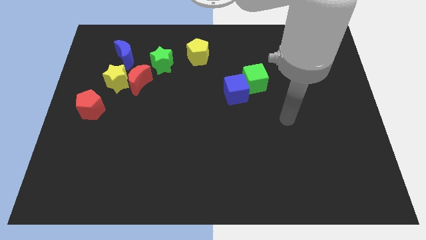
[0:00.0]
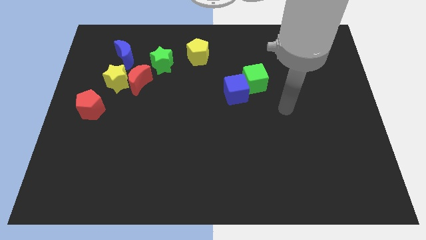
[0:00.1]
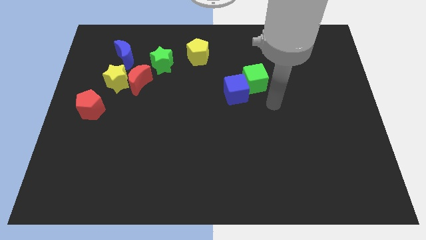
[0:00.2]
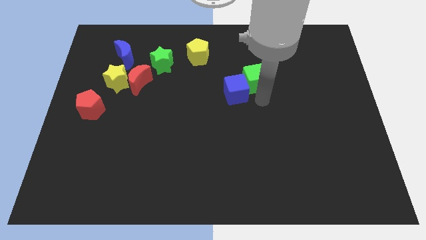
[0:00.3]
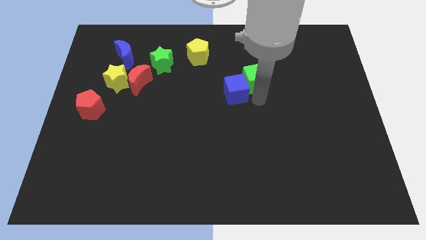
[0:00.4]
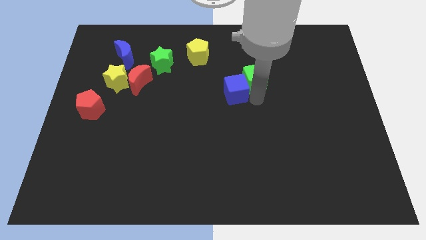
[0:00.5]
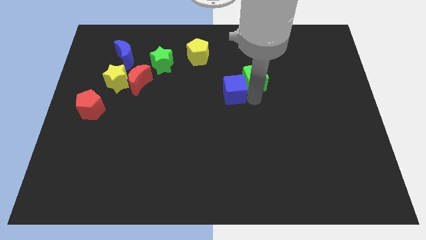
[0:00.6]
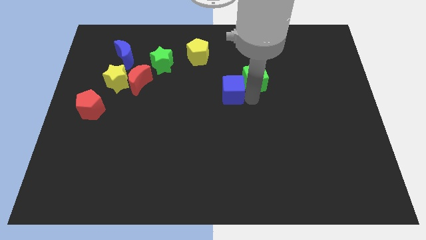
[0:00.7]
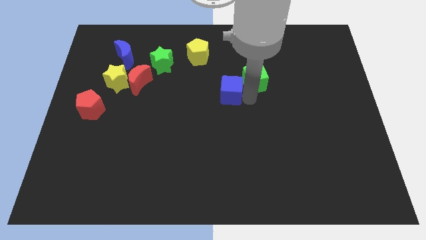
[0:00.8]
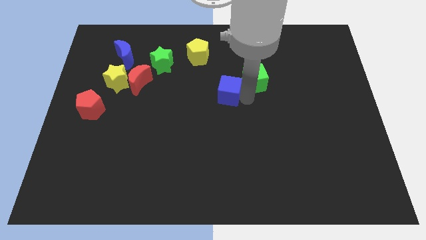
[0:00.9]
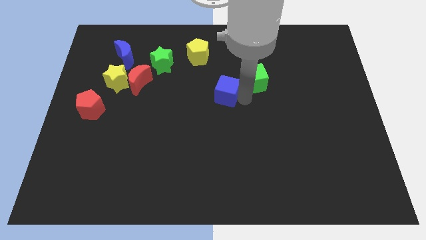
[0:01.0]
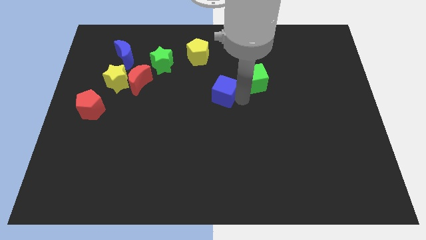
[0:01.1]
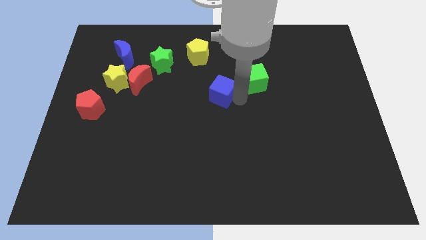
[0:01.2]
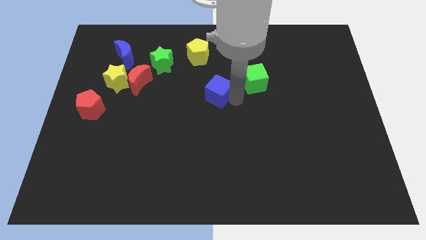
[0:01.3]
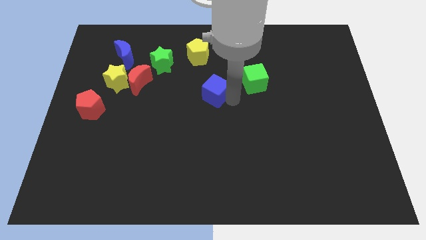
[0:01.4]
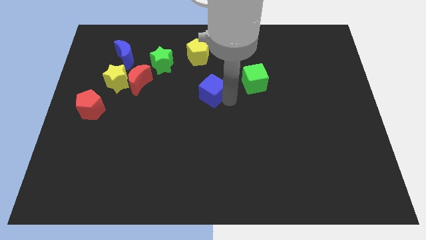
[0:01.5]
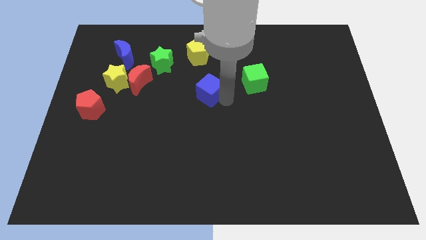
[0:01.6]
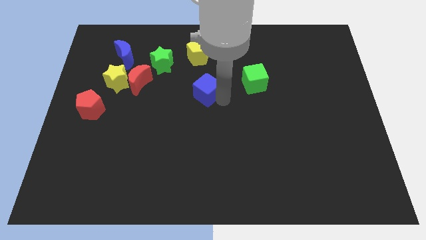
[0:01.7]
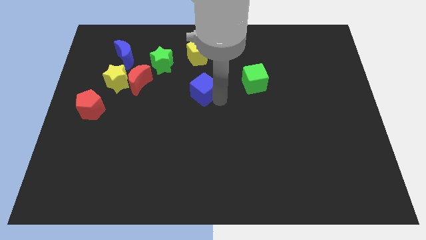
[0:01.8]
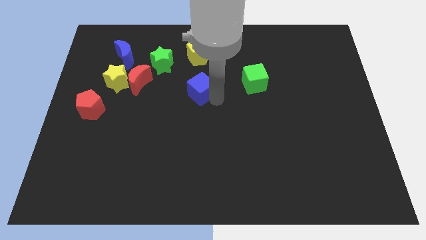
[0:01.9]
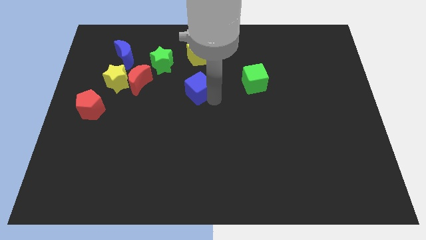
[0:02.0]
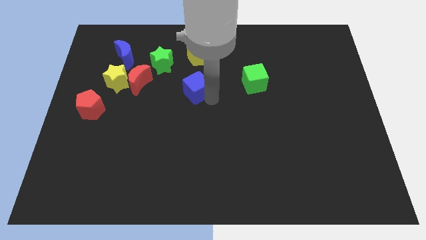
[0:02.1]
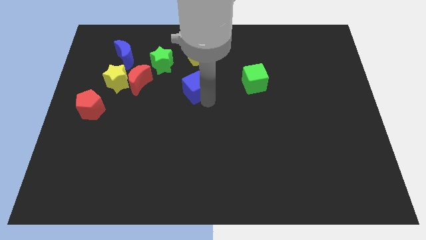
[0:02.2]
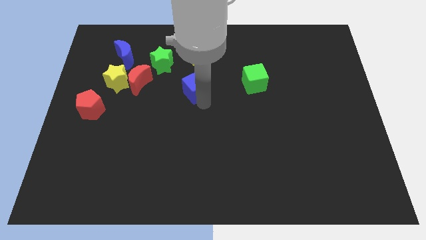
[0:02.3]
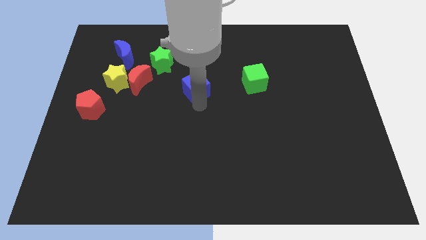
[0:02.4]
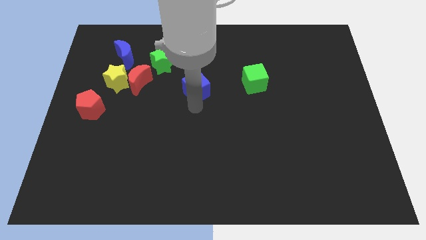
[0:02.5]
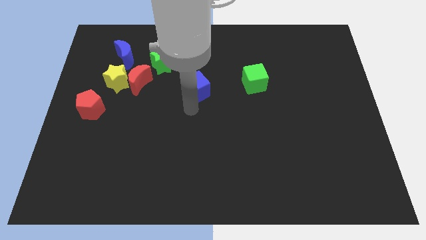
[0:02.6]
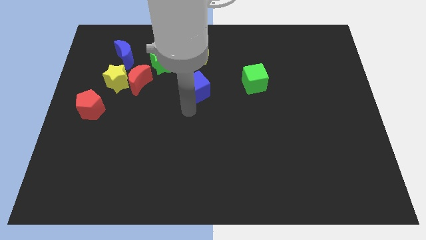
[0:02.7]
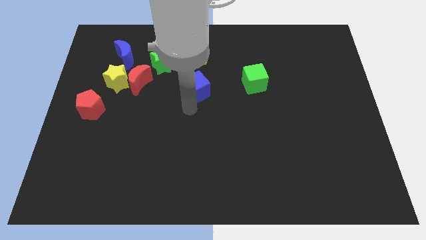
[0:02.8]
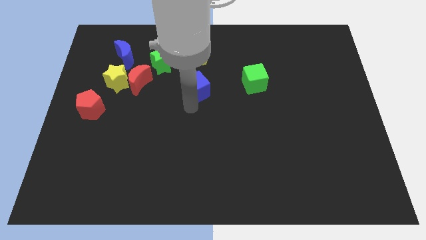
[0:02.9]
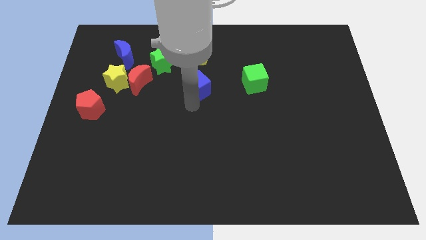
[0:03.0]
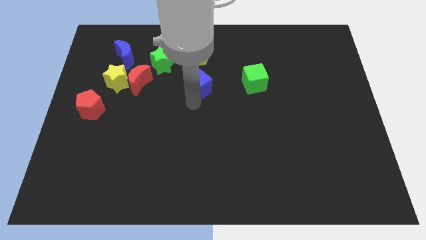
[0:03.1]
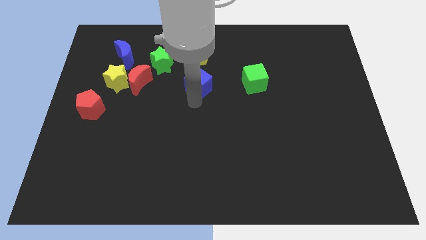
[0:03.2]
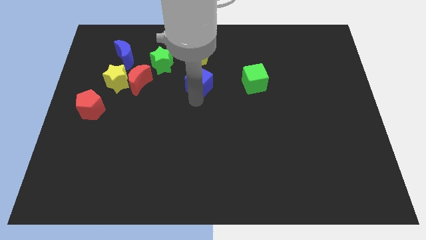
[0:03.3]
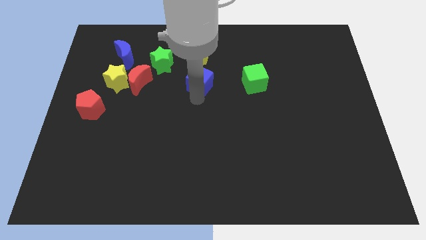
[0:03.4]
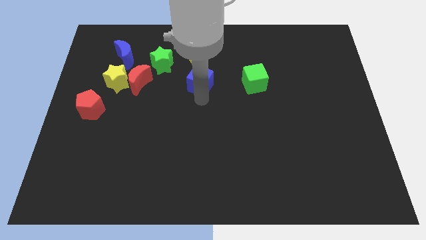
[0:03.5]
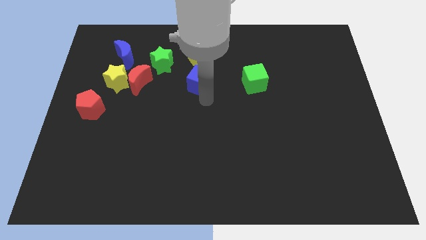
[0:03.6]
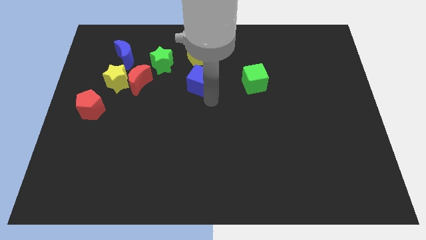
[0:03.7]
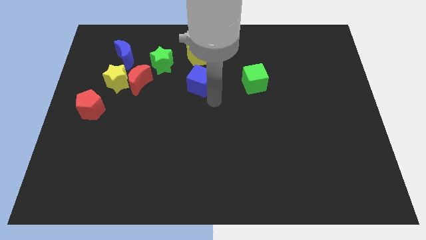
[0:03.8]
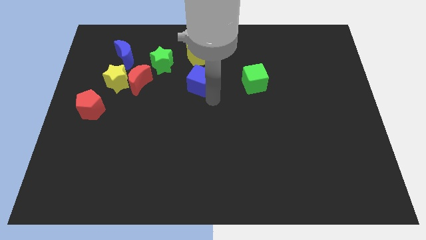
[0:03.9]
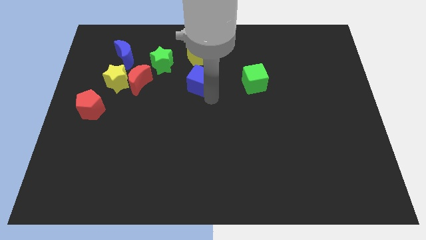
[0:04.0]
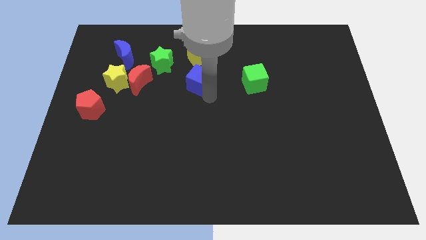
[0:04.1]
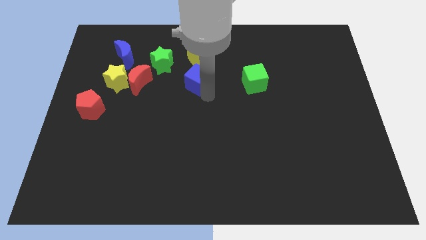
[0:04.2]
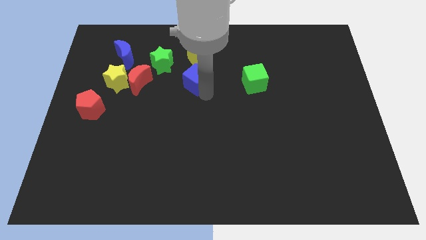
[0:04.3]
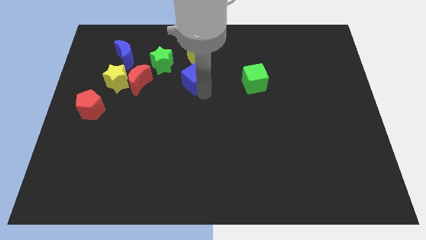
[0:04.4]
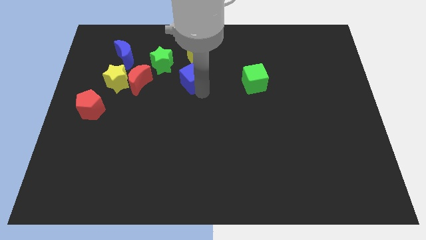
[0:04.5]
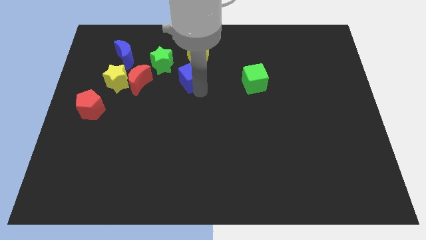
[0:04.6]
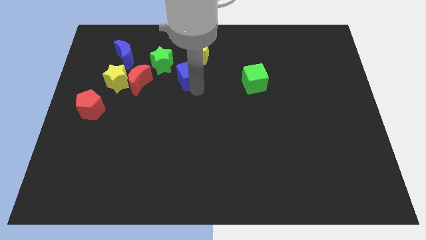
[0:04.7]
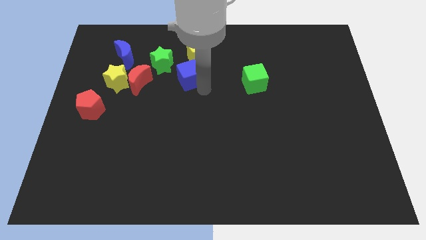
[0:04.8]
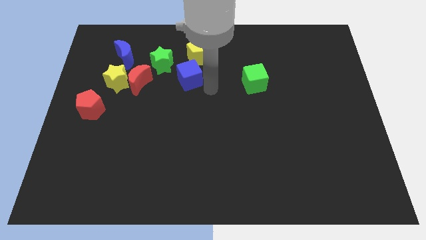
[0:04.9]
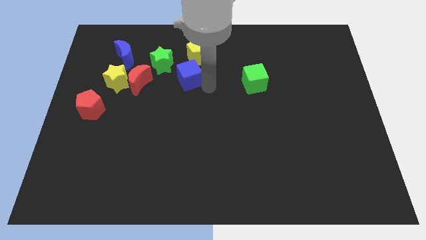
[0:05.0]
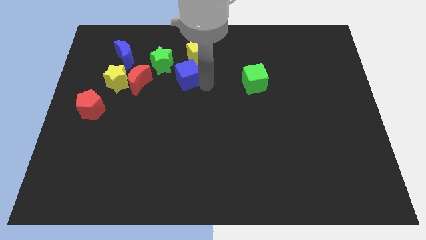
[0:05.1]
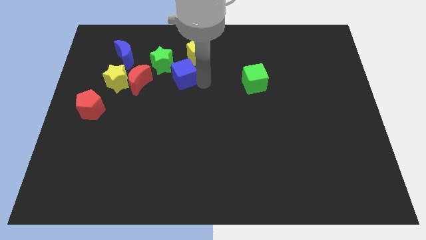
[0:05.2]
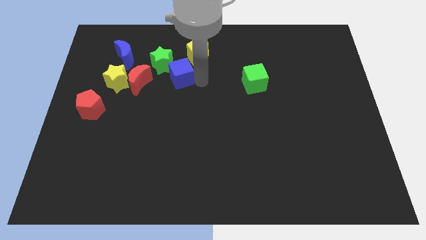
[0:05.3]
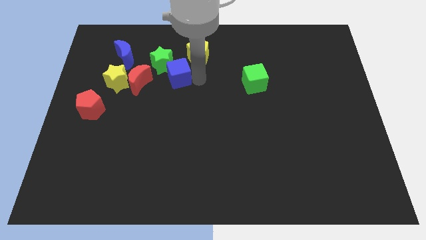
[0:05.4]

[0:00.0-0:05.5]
move the blue cube towards the green star

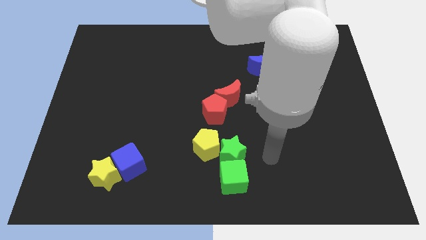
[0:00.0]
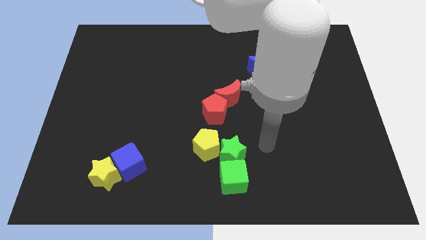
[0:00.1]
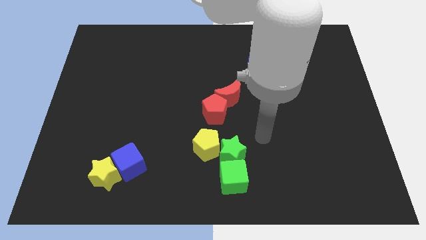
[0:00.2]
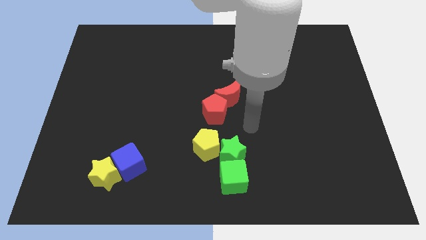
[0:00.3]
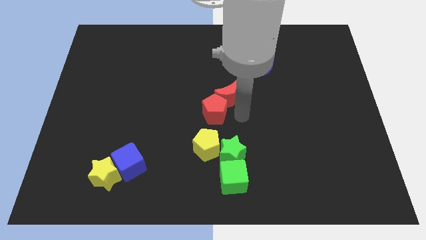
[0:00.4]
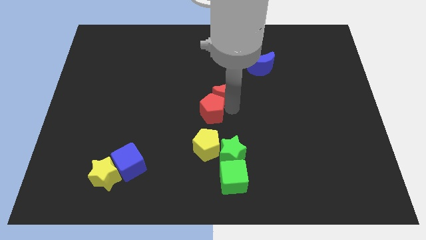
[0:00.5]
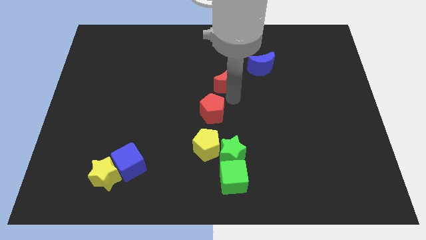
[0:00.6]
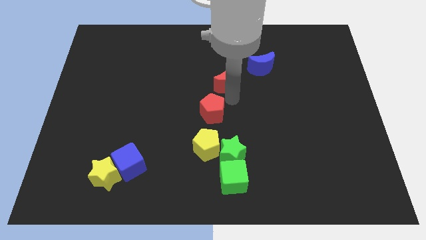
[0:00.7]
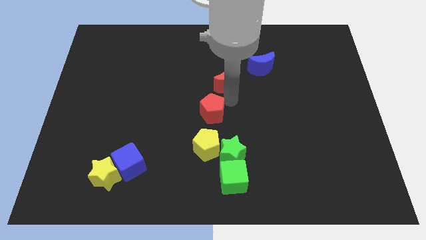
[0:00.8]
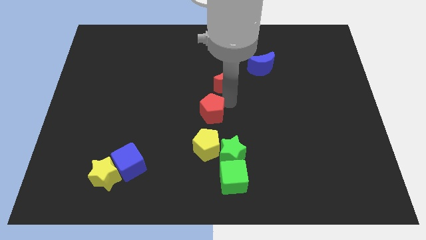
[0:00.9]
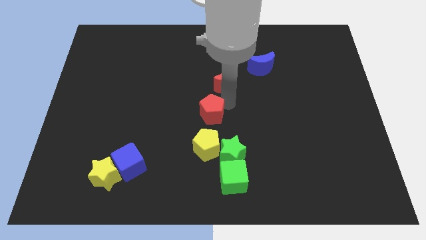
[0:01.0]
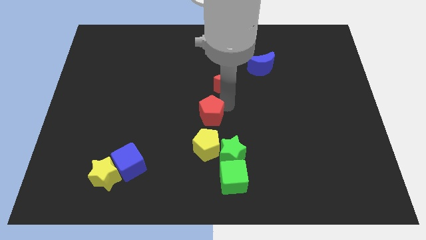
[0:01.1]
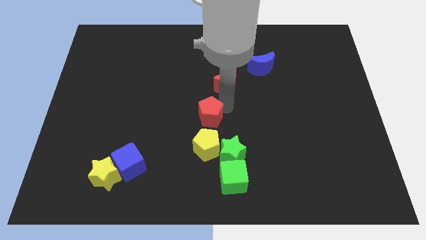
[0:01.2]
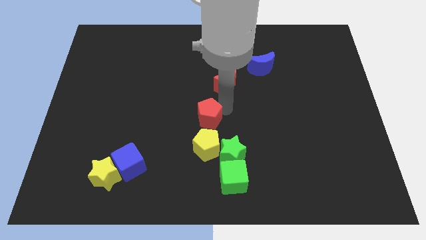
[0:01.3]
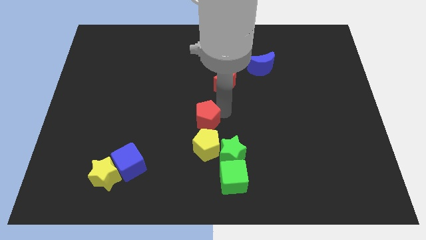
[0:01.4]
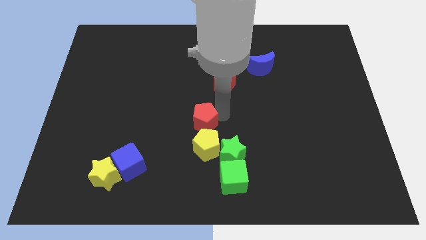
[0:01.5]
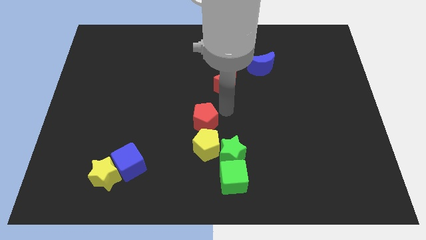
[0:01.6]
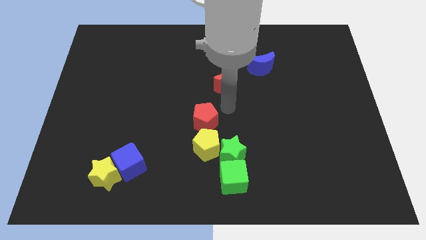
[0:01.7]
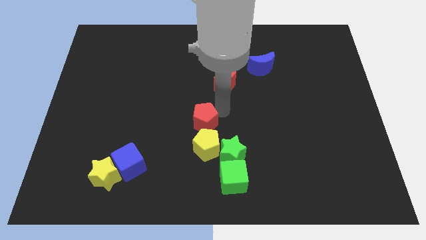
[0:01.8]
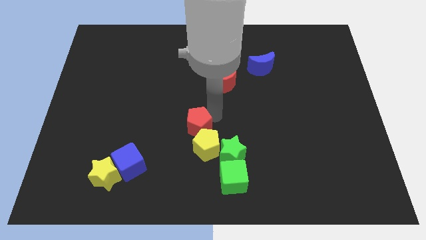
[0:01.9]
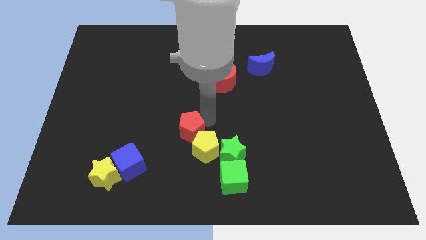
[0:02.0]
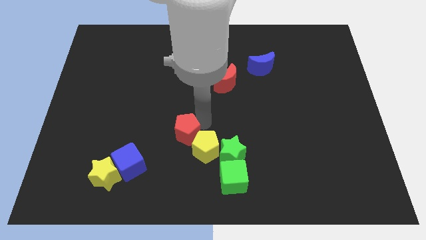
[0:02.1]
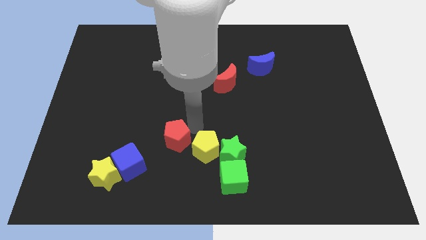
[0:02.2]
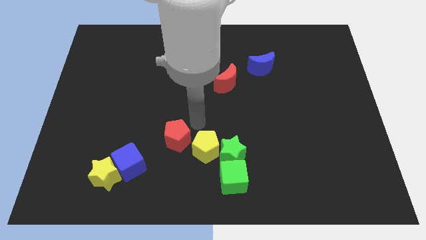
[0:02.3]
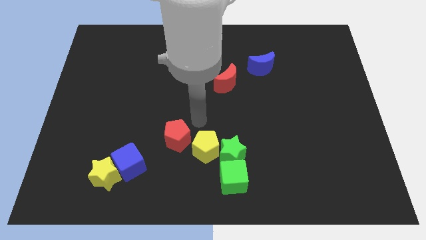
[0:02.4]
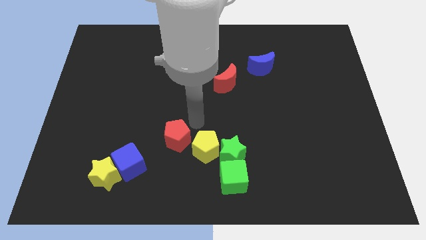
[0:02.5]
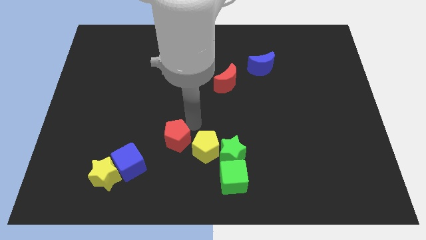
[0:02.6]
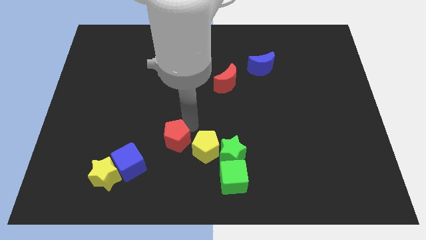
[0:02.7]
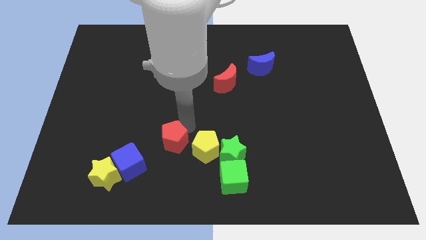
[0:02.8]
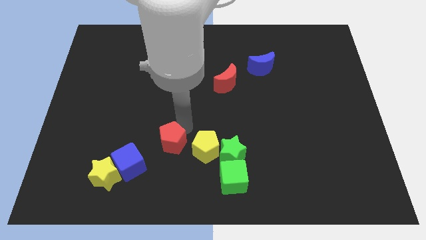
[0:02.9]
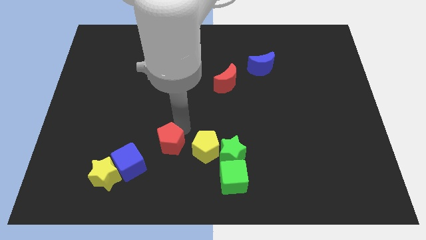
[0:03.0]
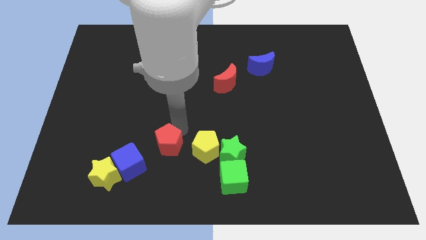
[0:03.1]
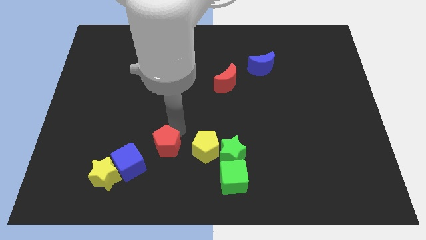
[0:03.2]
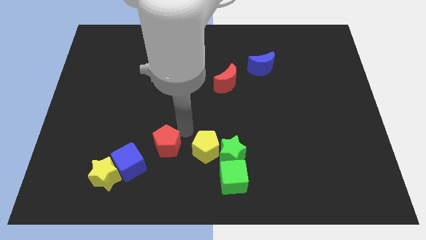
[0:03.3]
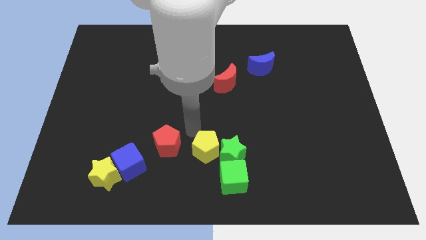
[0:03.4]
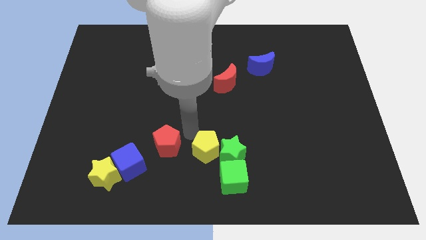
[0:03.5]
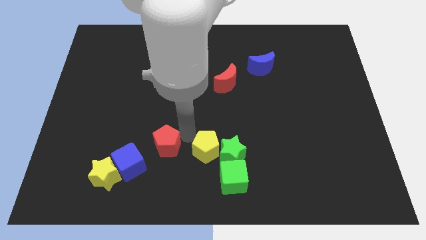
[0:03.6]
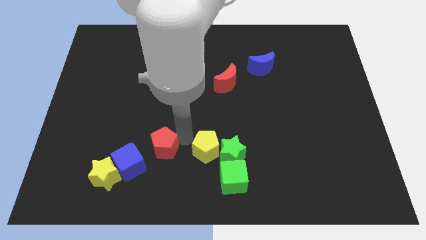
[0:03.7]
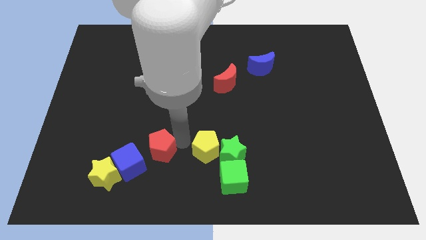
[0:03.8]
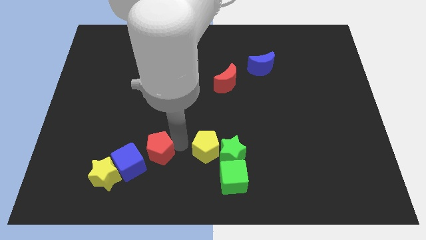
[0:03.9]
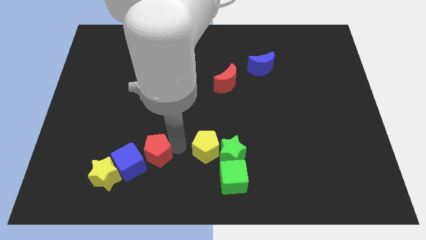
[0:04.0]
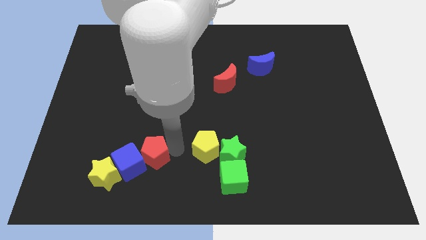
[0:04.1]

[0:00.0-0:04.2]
slide the red pentagon next to the blue cube
